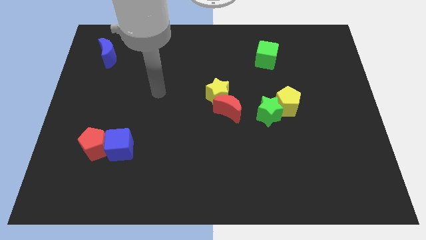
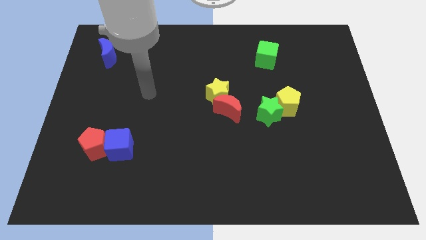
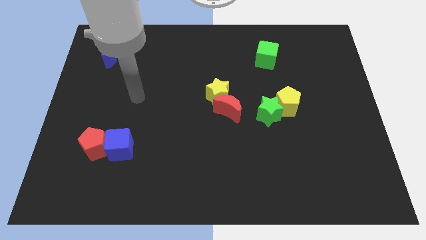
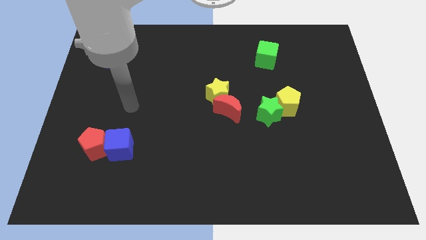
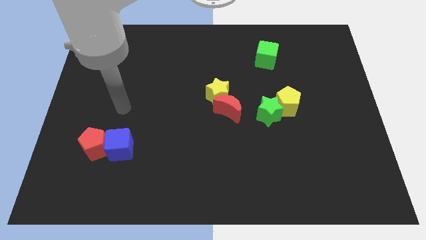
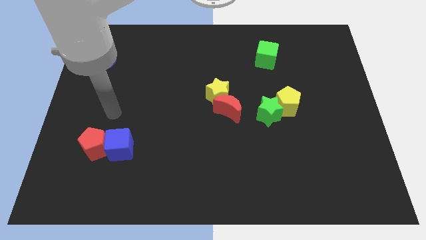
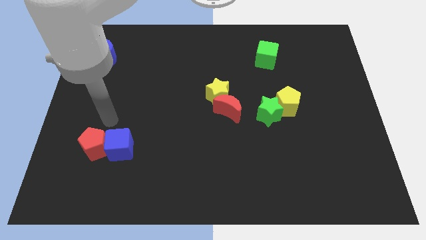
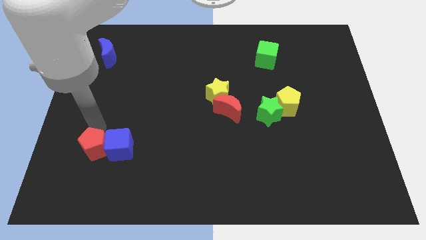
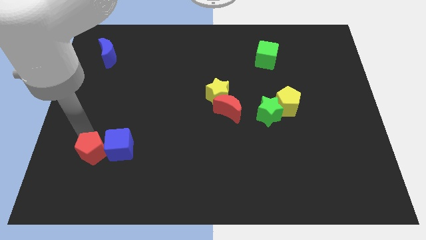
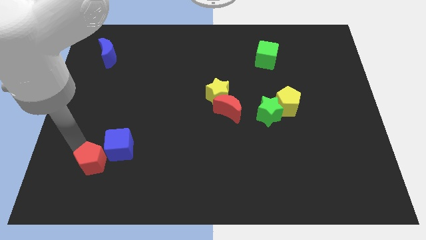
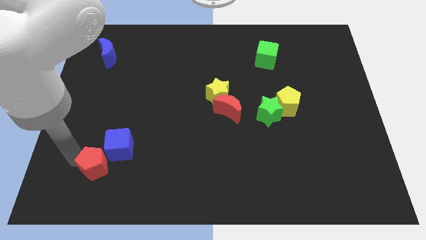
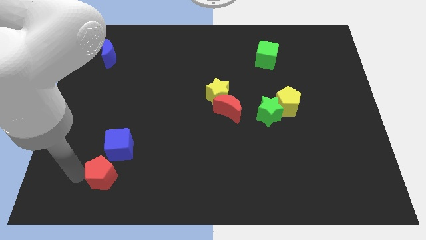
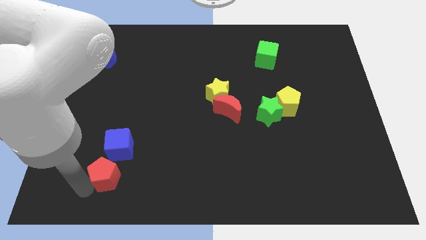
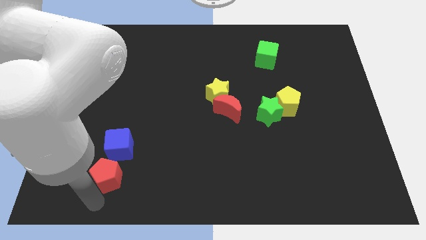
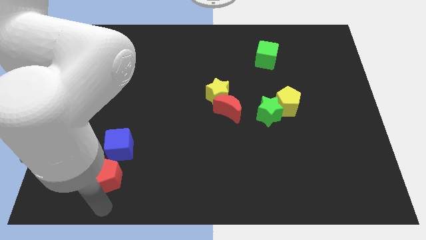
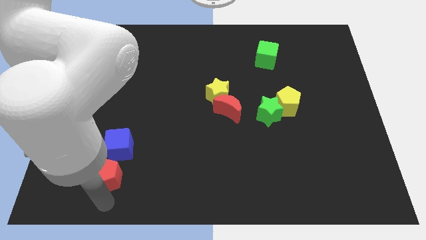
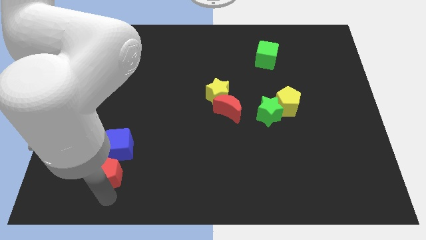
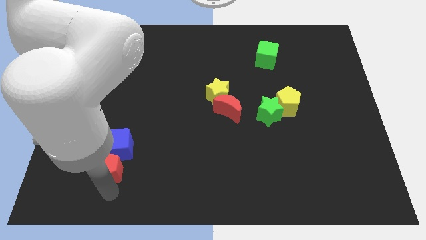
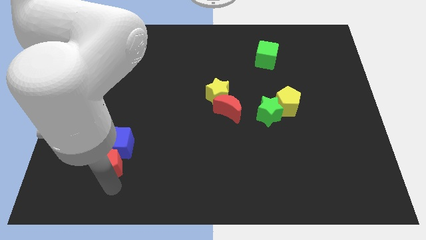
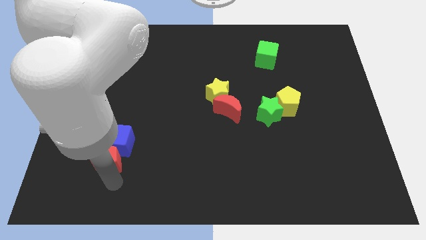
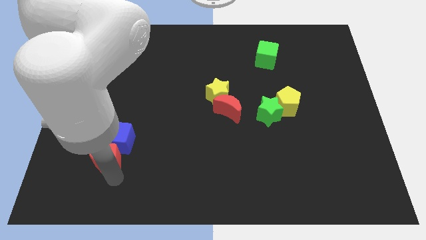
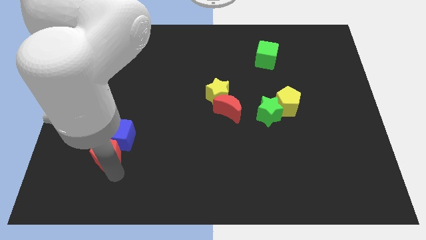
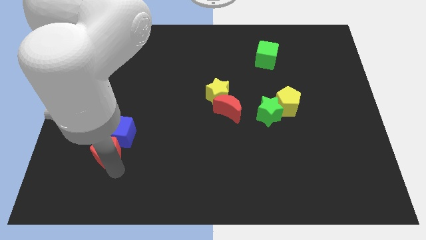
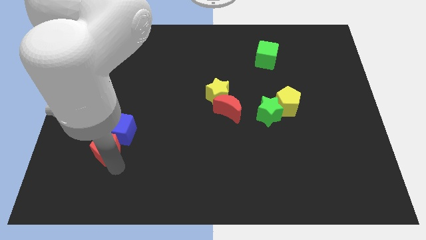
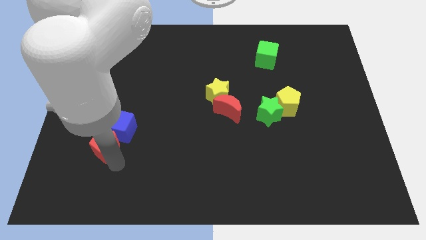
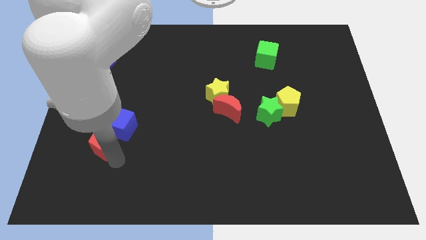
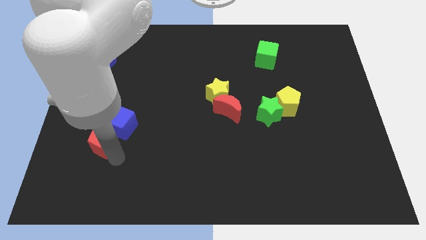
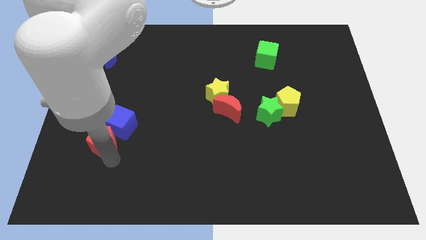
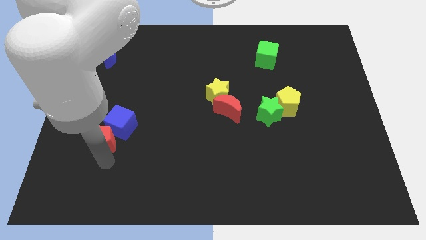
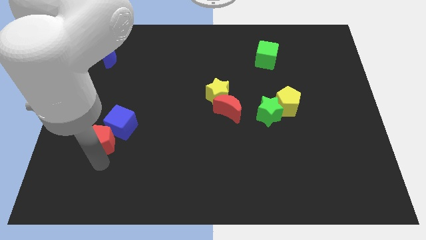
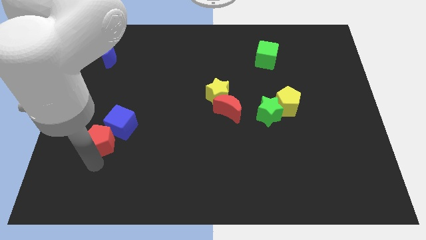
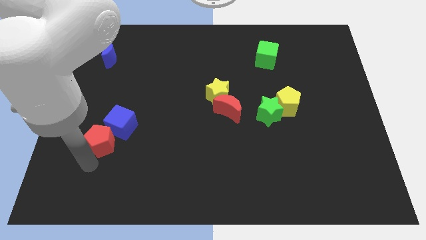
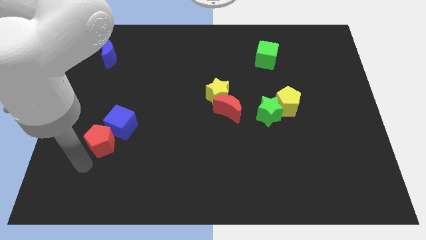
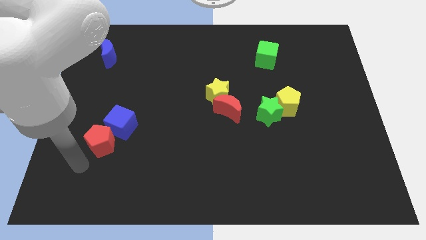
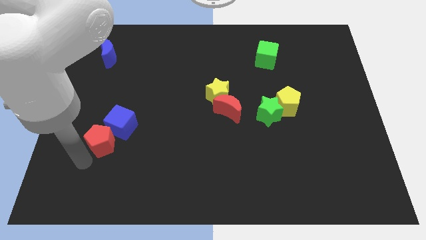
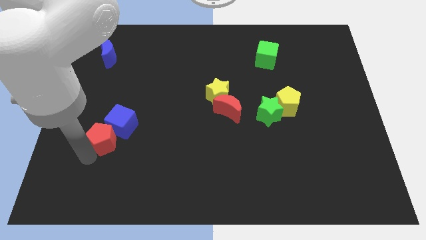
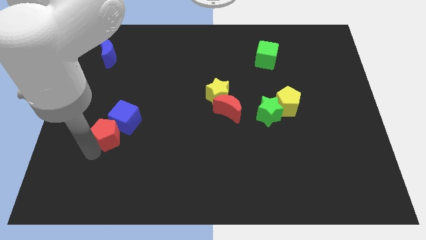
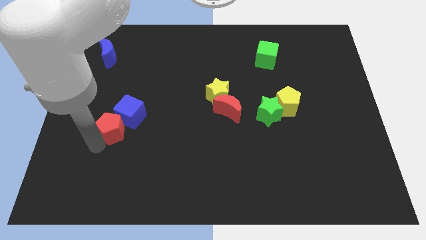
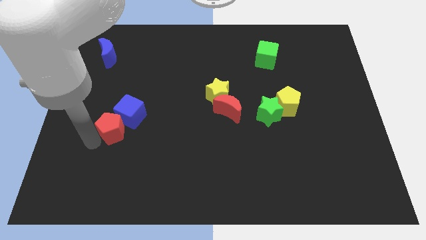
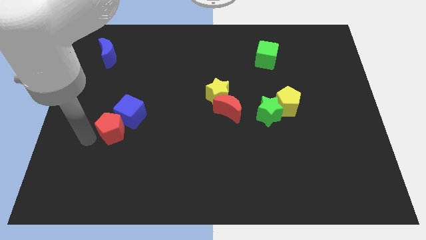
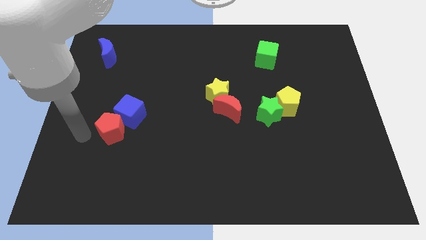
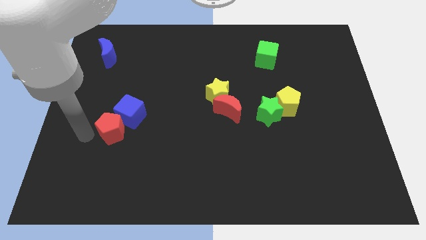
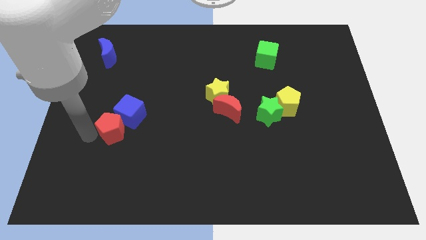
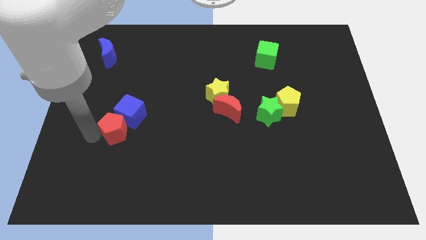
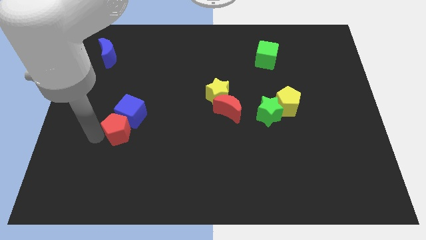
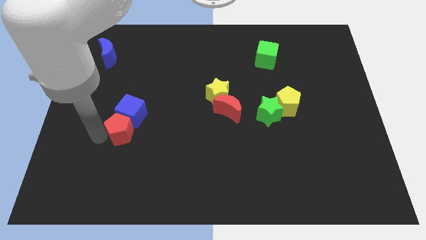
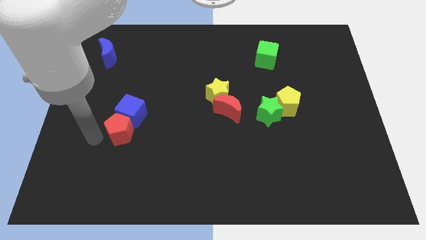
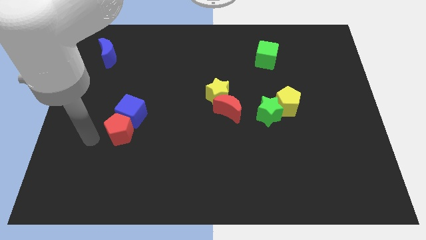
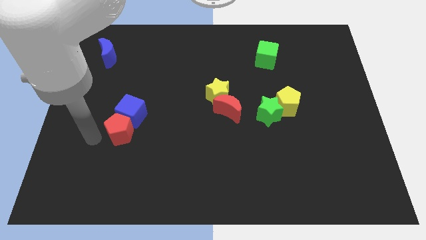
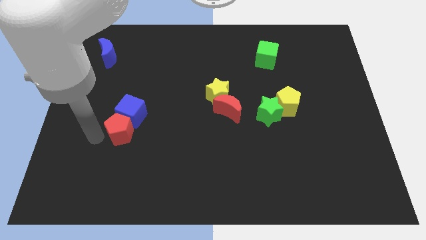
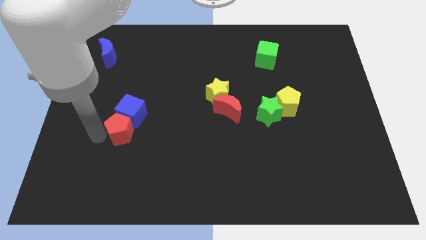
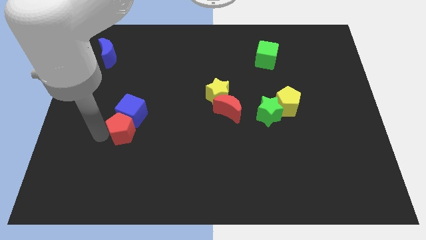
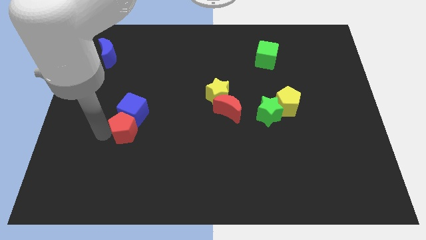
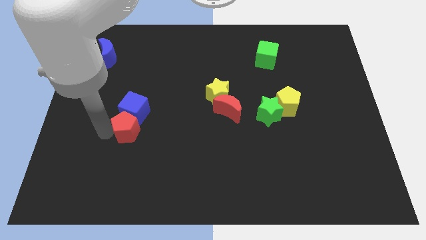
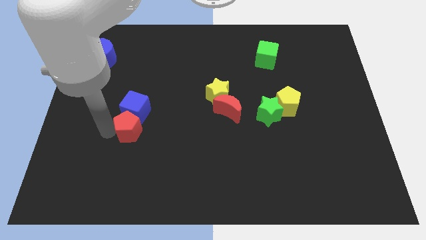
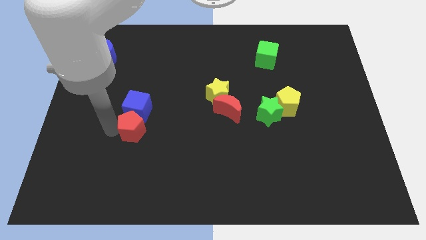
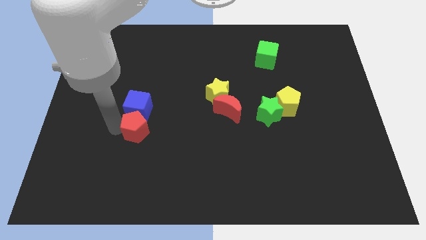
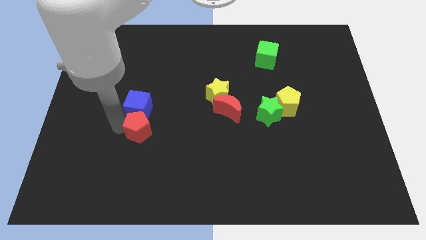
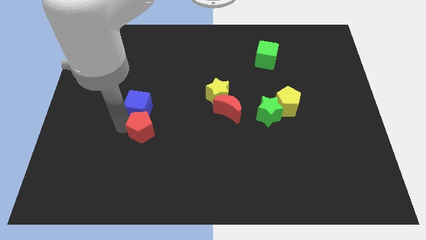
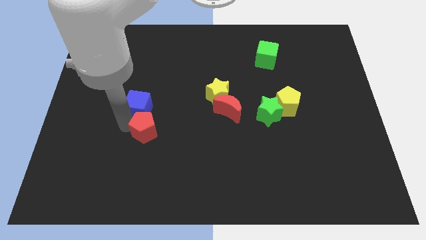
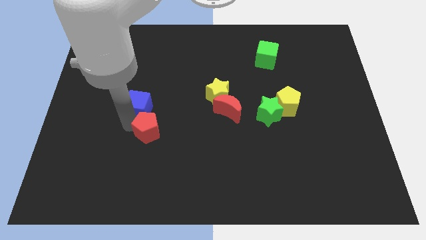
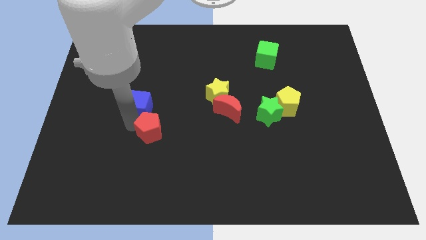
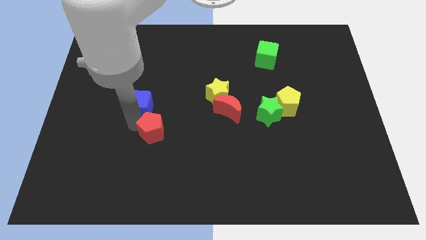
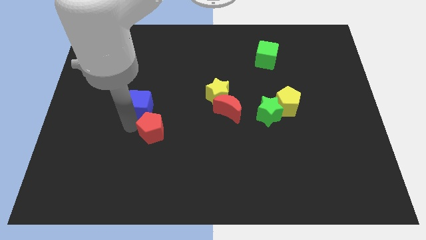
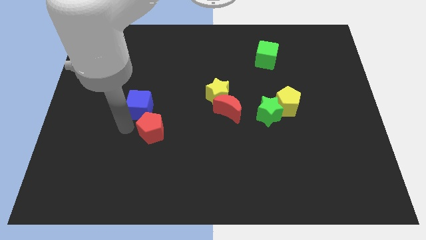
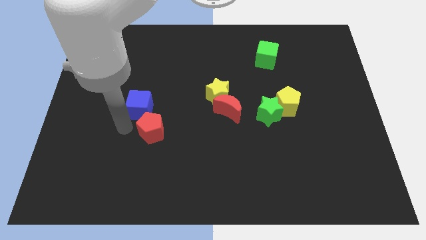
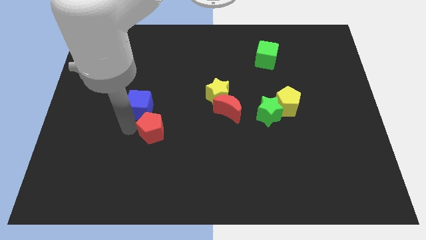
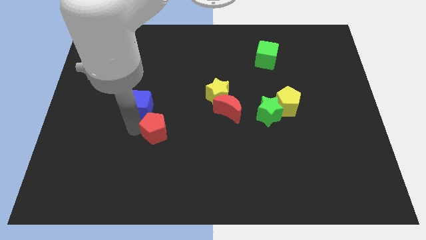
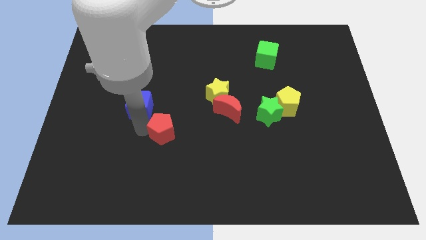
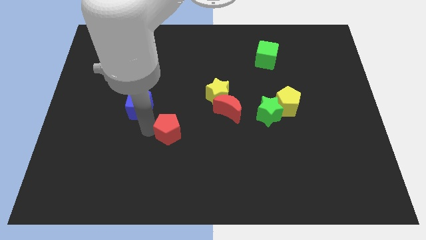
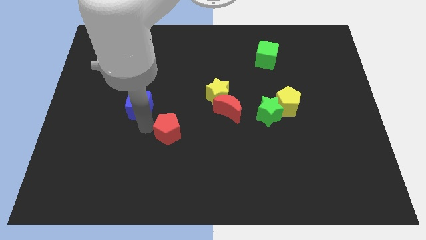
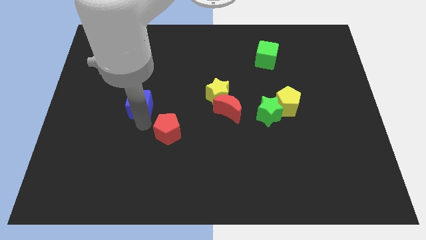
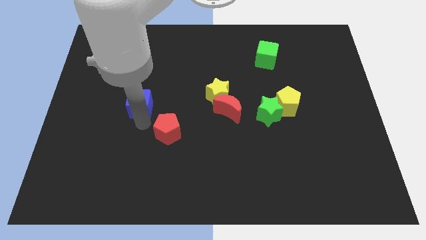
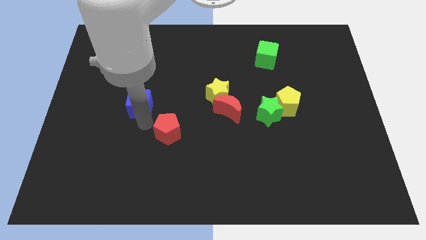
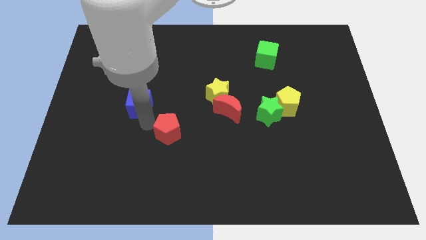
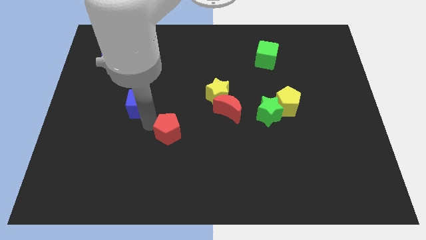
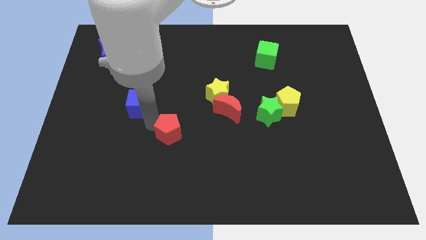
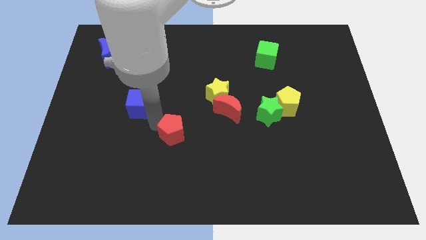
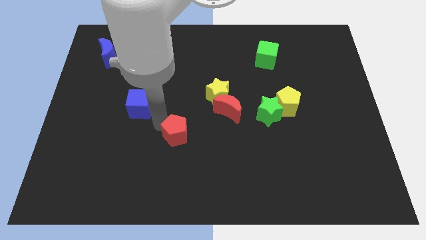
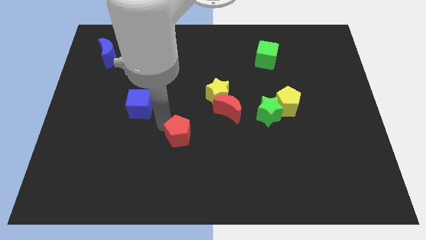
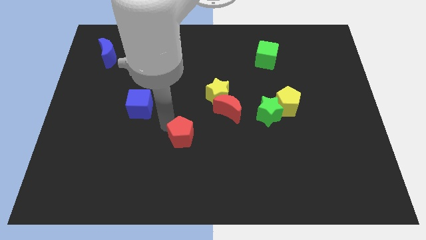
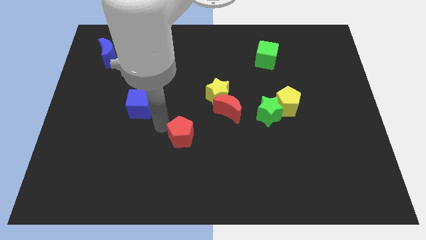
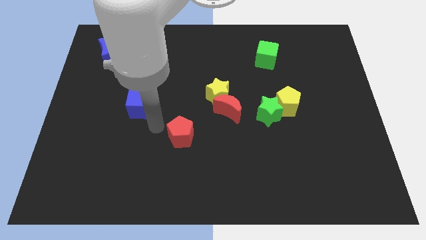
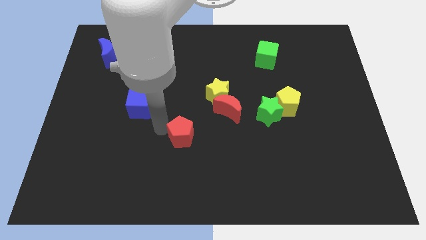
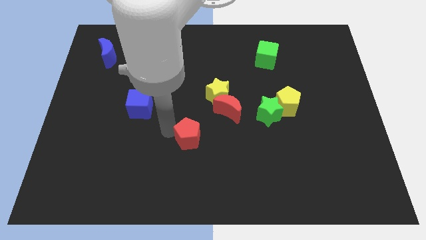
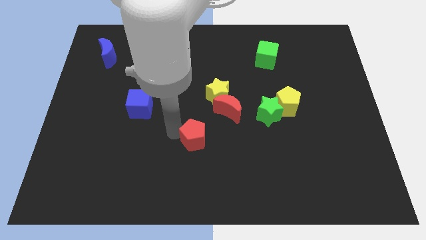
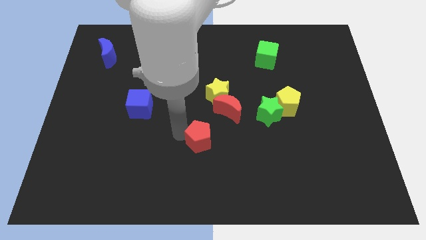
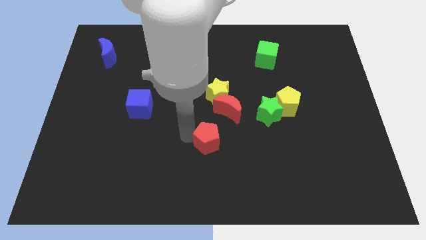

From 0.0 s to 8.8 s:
slide the red pentagon to the bottom of the red moon
